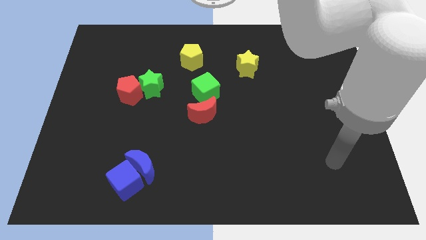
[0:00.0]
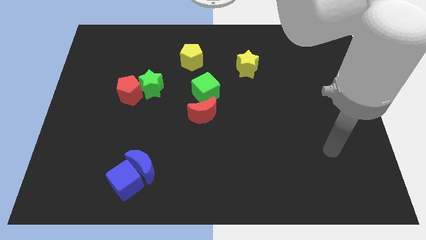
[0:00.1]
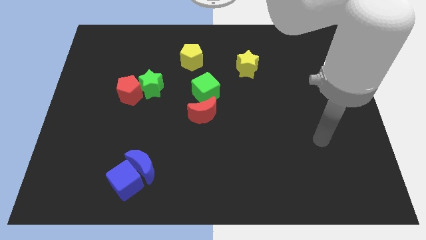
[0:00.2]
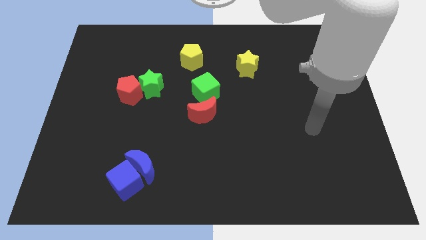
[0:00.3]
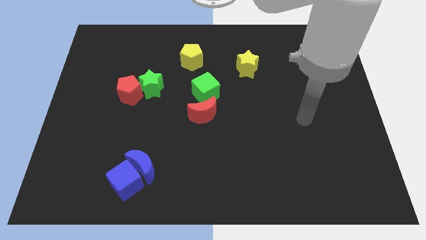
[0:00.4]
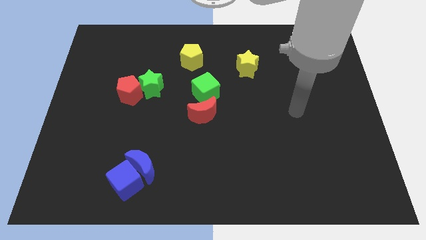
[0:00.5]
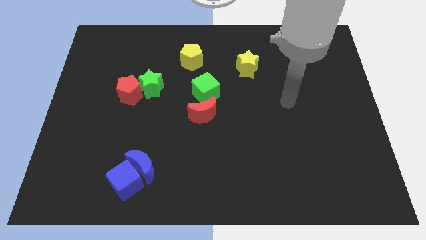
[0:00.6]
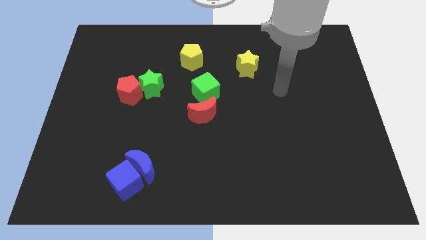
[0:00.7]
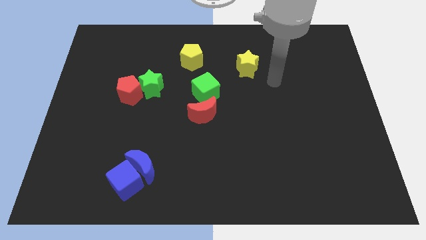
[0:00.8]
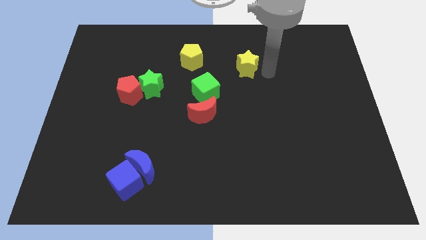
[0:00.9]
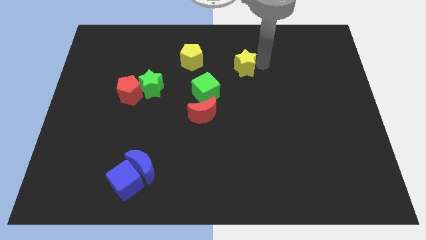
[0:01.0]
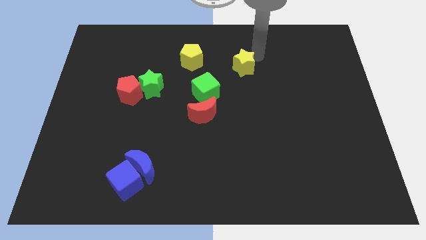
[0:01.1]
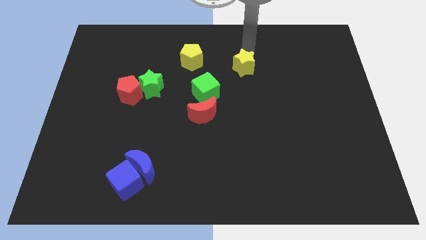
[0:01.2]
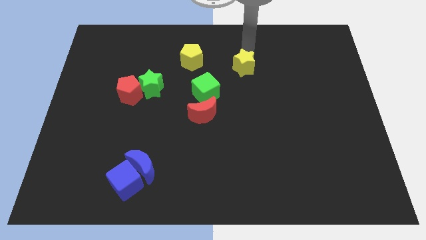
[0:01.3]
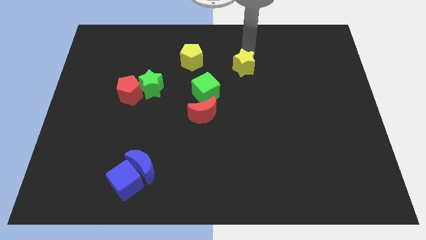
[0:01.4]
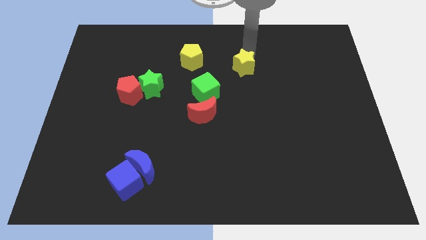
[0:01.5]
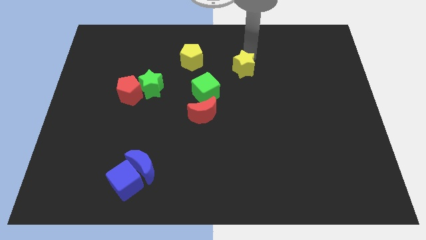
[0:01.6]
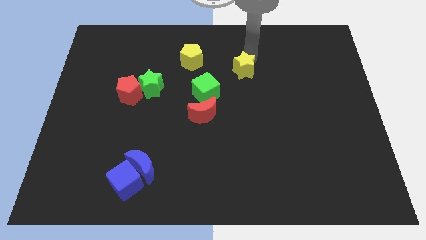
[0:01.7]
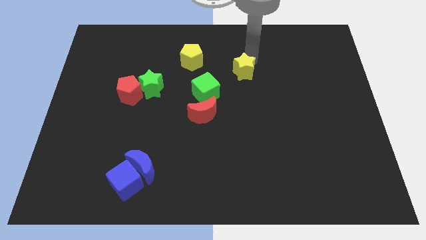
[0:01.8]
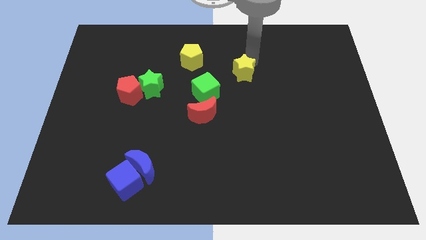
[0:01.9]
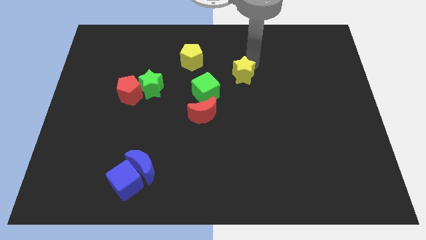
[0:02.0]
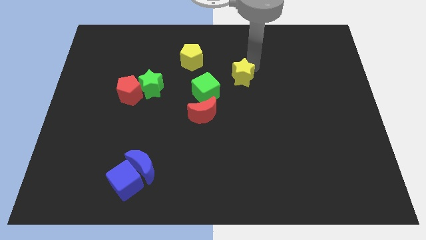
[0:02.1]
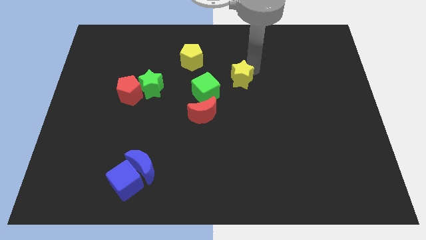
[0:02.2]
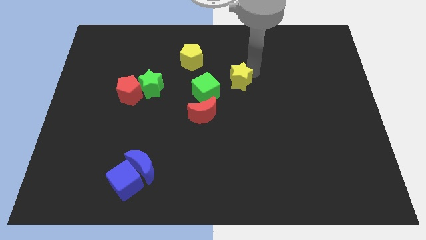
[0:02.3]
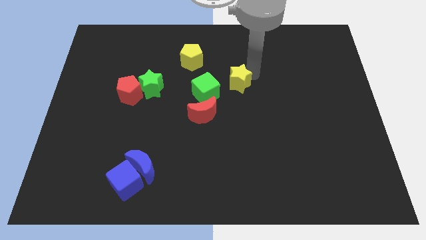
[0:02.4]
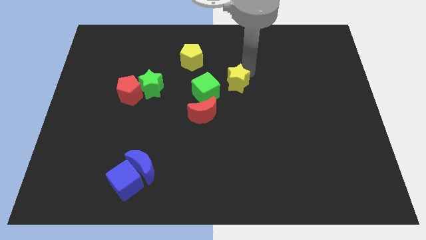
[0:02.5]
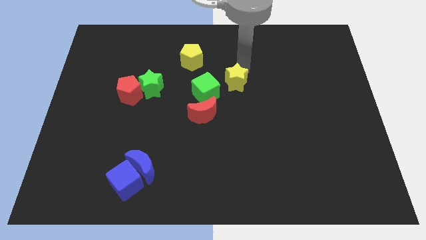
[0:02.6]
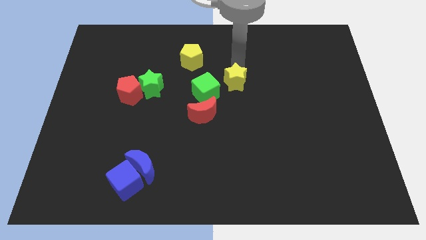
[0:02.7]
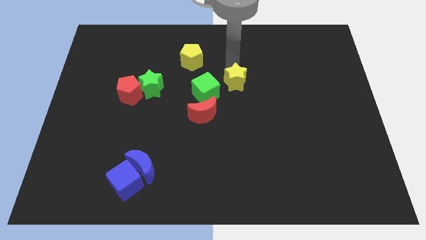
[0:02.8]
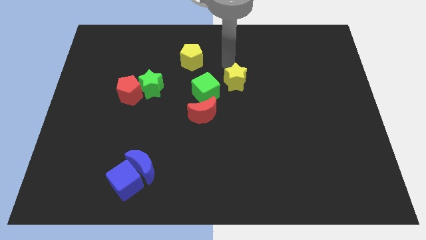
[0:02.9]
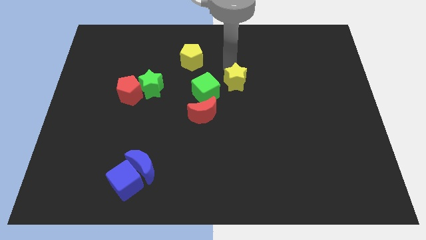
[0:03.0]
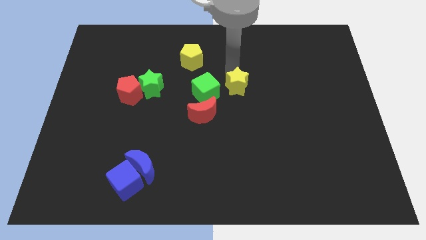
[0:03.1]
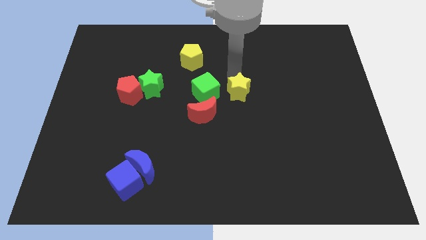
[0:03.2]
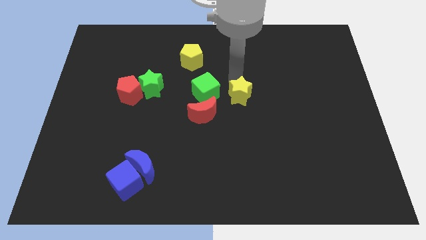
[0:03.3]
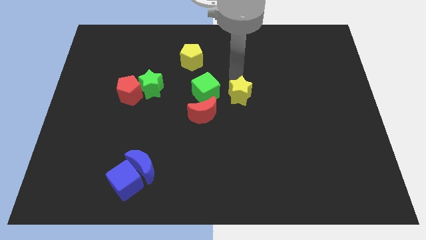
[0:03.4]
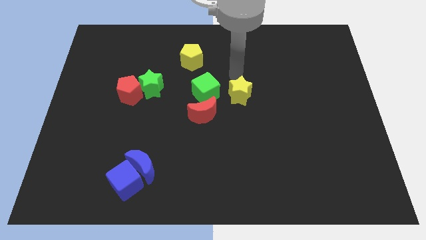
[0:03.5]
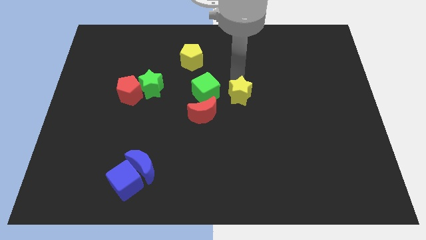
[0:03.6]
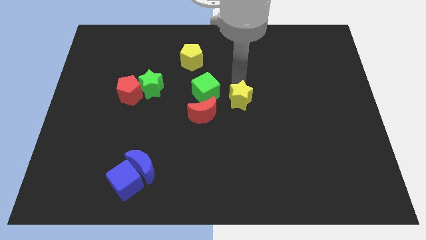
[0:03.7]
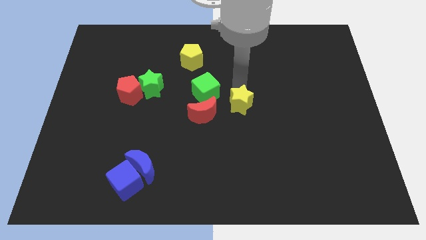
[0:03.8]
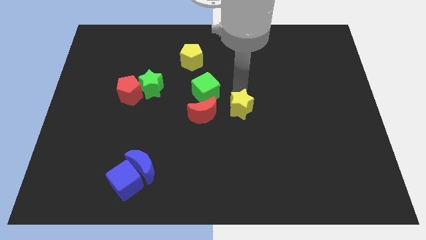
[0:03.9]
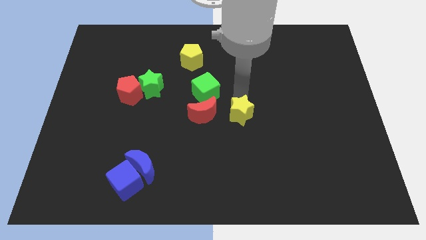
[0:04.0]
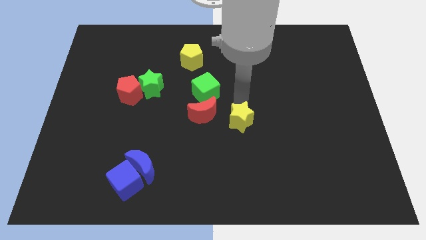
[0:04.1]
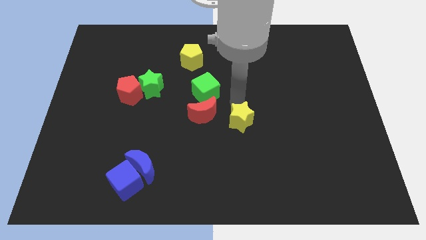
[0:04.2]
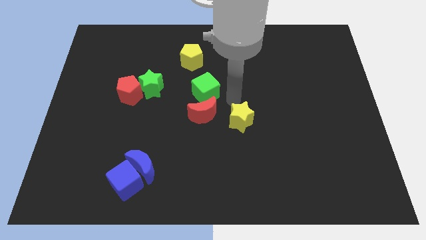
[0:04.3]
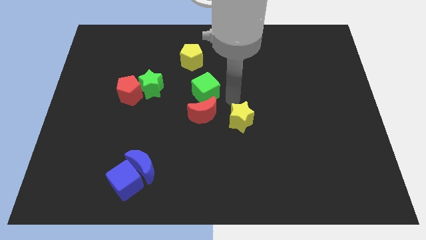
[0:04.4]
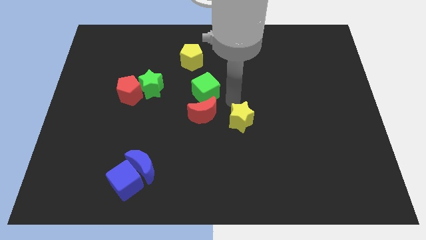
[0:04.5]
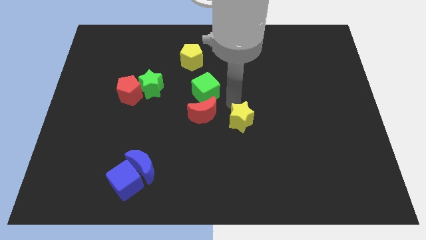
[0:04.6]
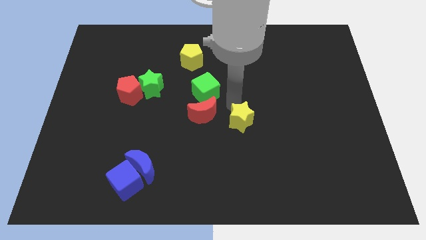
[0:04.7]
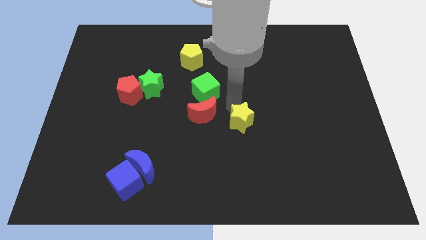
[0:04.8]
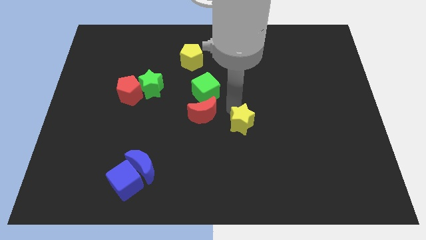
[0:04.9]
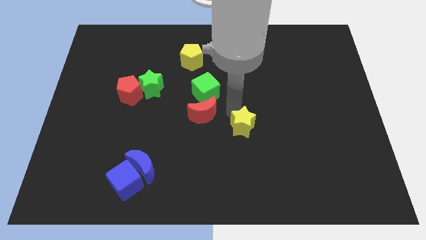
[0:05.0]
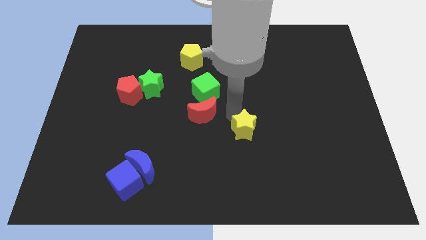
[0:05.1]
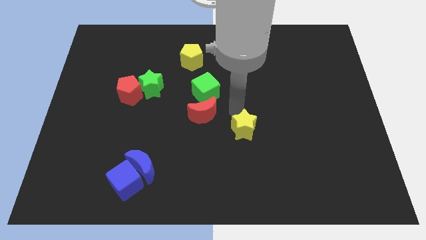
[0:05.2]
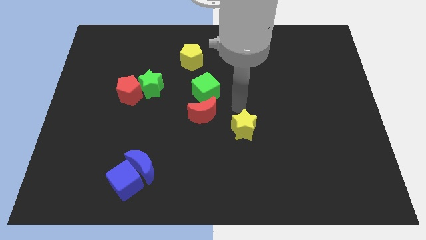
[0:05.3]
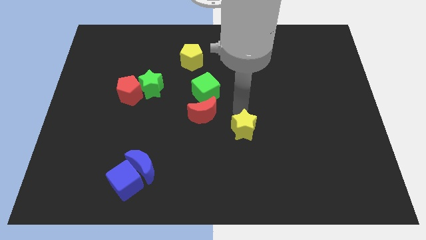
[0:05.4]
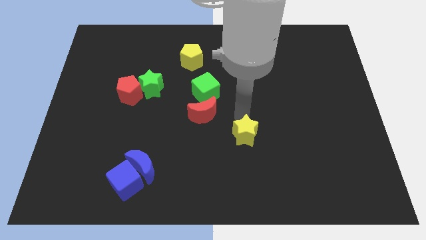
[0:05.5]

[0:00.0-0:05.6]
push the yellow star downwards

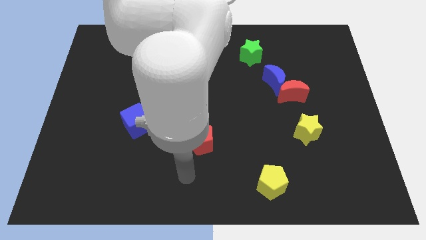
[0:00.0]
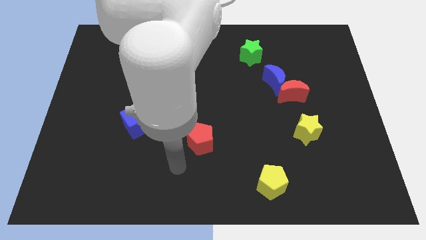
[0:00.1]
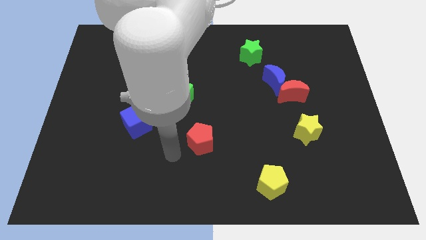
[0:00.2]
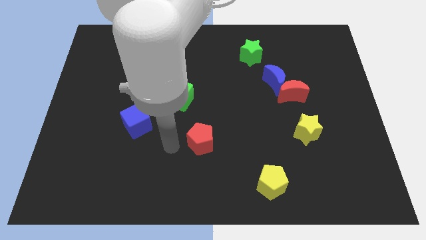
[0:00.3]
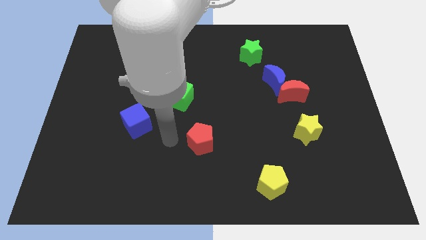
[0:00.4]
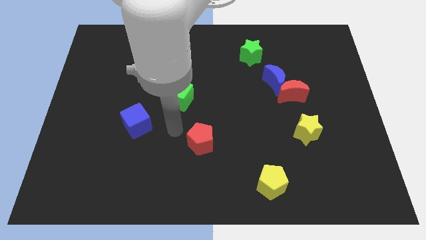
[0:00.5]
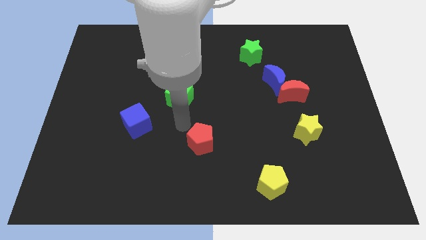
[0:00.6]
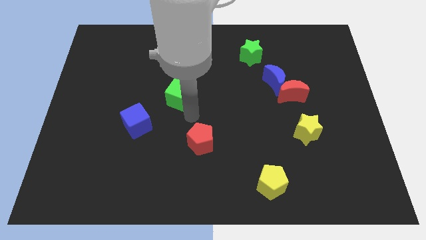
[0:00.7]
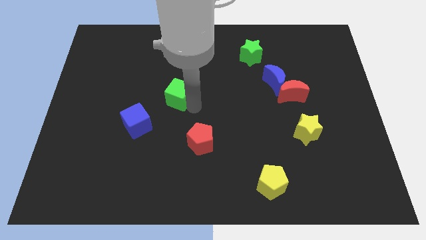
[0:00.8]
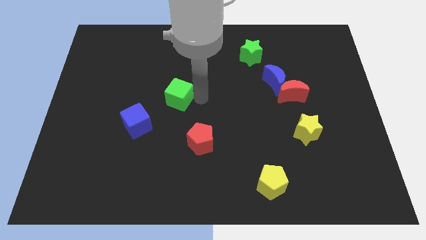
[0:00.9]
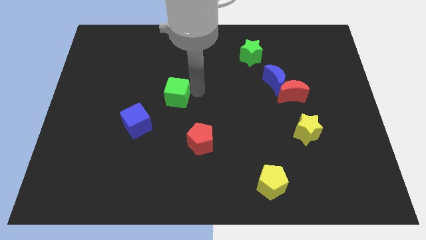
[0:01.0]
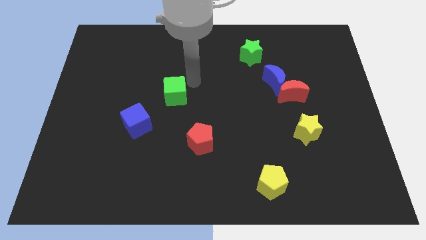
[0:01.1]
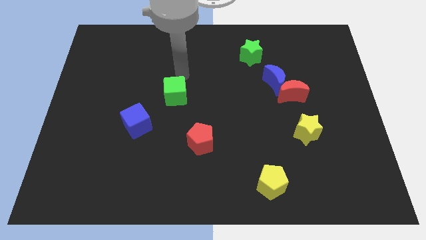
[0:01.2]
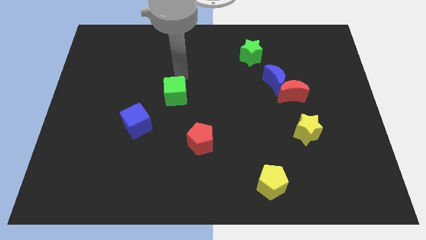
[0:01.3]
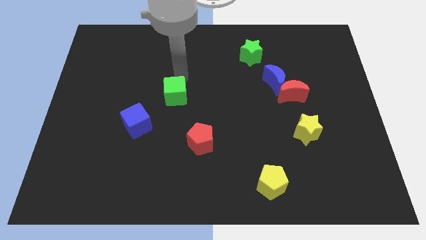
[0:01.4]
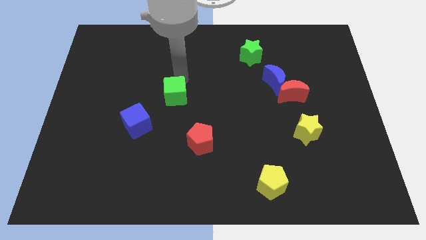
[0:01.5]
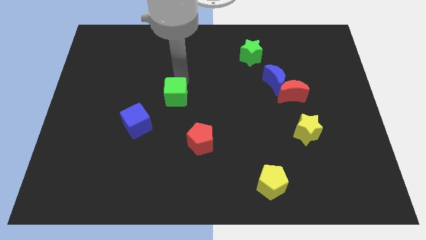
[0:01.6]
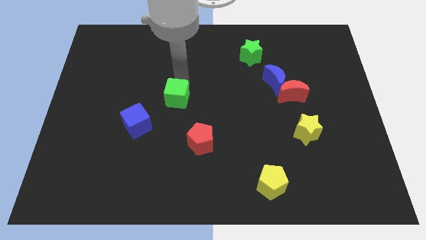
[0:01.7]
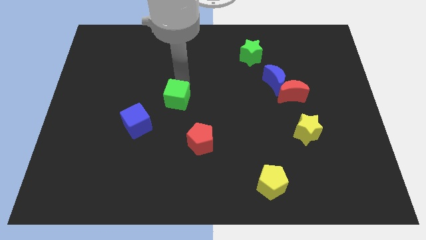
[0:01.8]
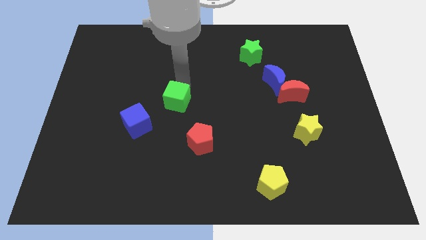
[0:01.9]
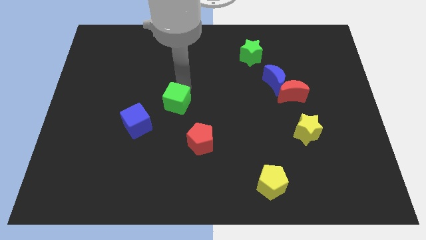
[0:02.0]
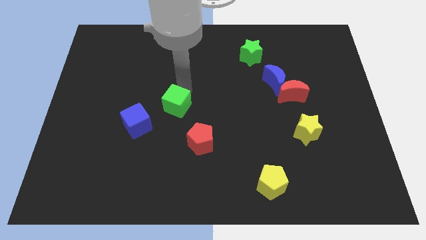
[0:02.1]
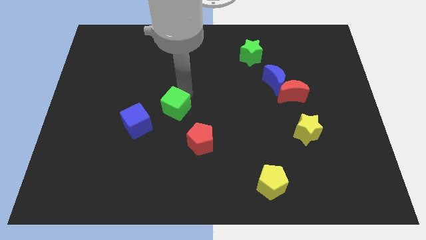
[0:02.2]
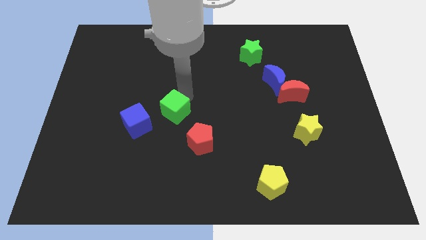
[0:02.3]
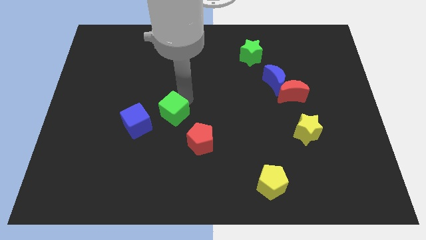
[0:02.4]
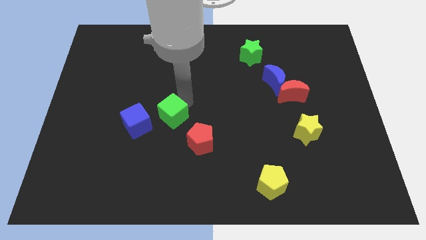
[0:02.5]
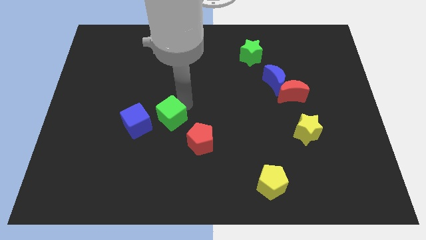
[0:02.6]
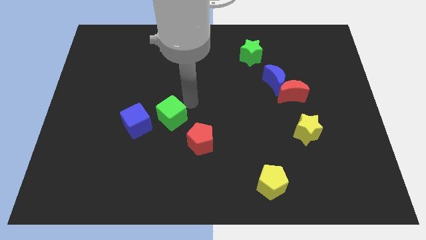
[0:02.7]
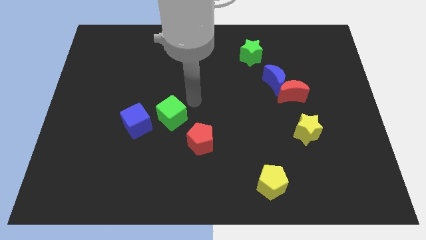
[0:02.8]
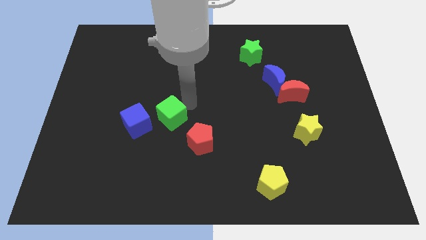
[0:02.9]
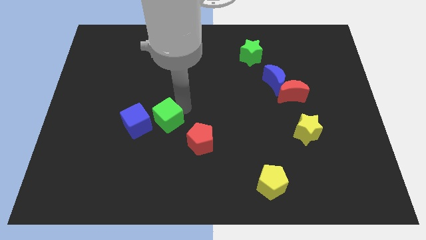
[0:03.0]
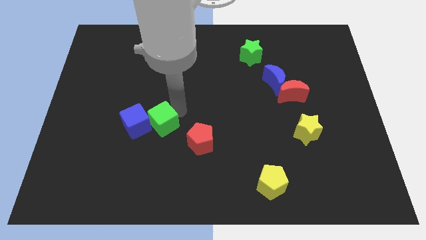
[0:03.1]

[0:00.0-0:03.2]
slide the green cube somewhat downwards and to the left
